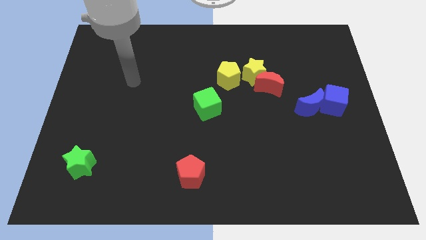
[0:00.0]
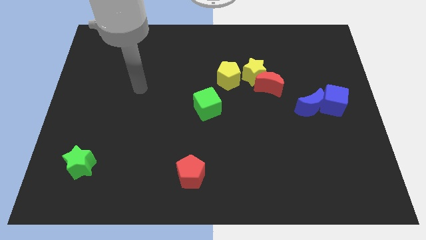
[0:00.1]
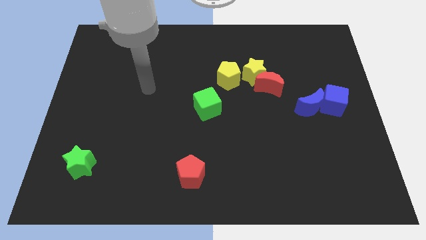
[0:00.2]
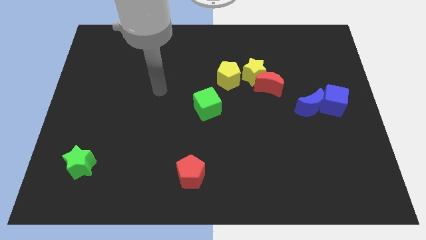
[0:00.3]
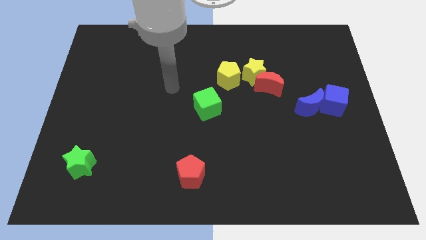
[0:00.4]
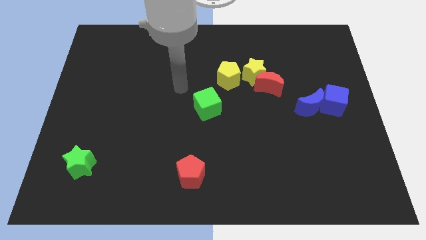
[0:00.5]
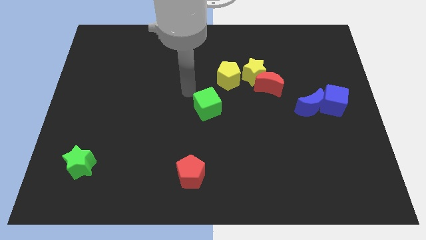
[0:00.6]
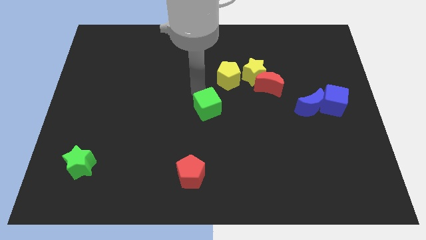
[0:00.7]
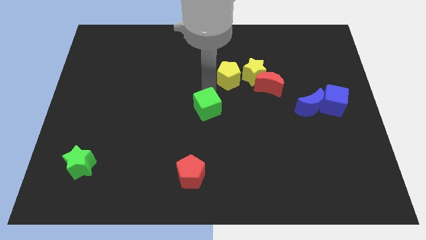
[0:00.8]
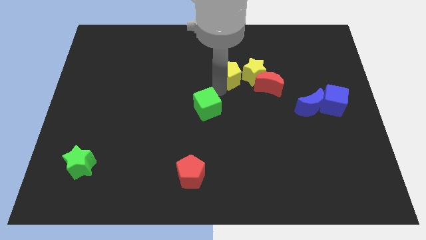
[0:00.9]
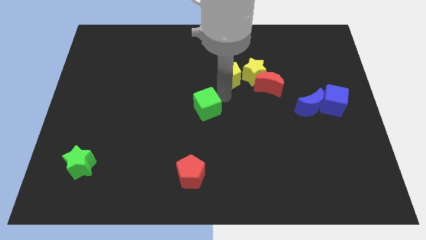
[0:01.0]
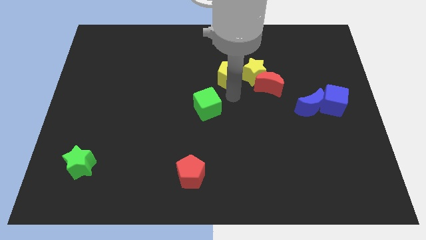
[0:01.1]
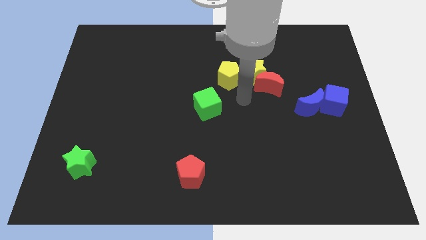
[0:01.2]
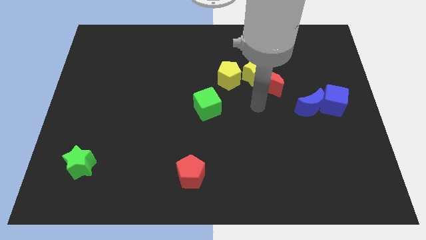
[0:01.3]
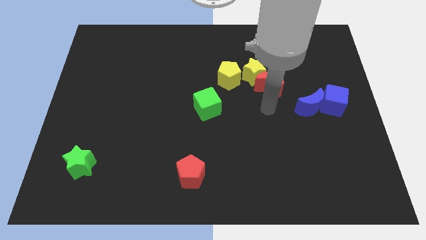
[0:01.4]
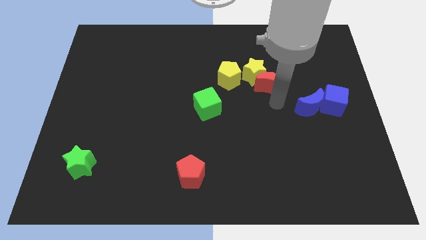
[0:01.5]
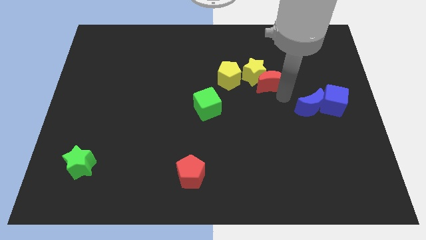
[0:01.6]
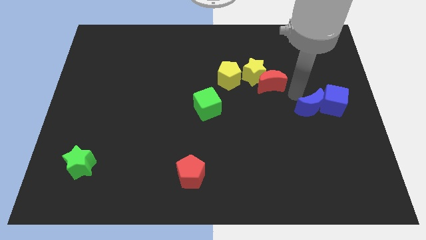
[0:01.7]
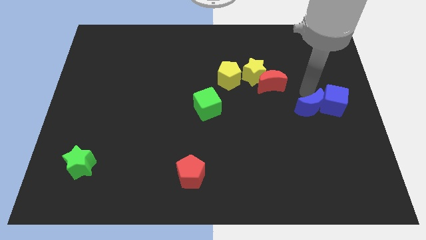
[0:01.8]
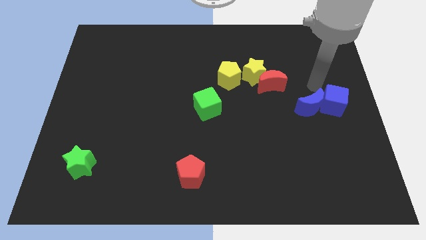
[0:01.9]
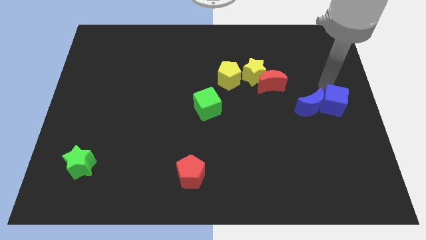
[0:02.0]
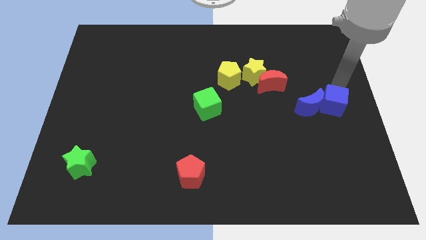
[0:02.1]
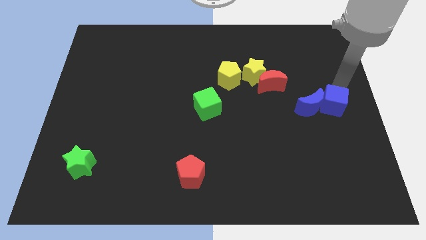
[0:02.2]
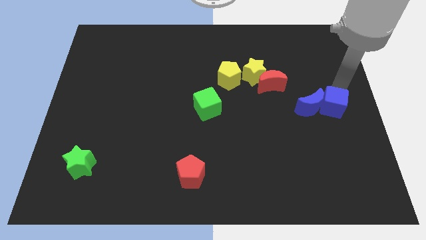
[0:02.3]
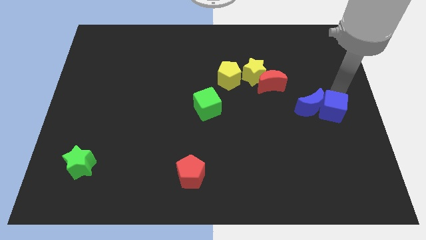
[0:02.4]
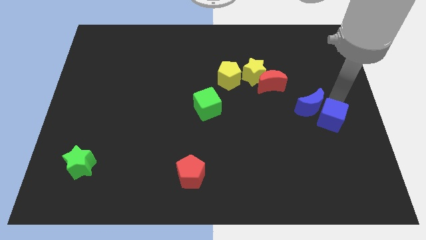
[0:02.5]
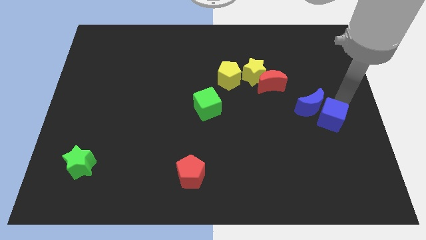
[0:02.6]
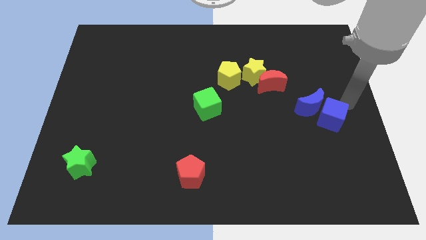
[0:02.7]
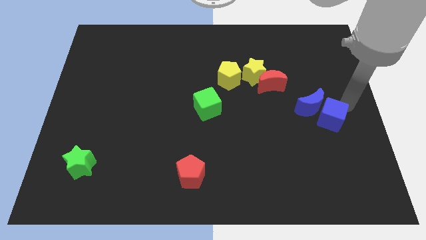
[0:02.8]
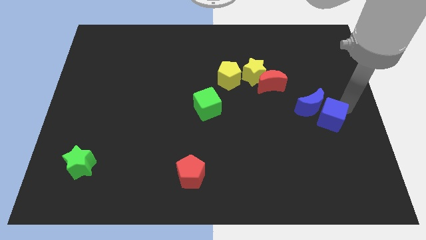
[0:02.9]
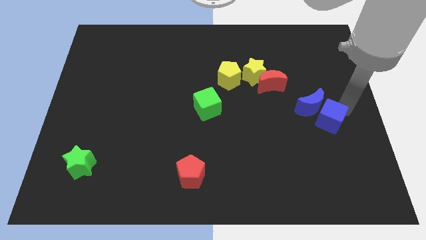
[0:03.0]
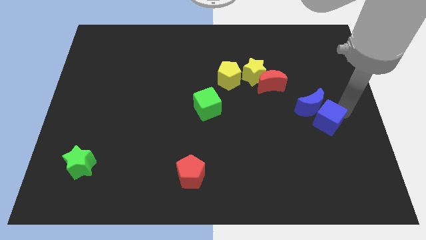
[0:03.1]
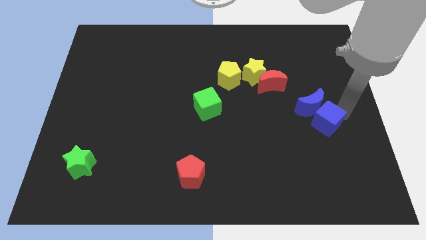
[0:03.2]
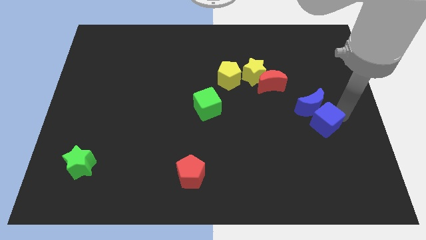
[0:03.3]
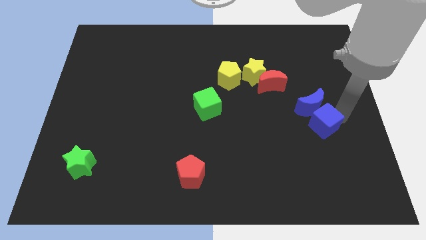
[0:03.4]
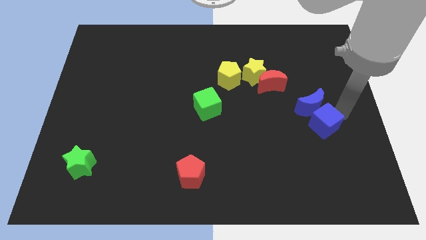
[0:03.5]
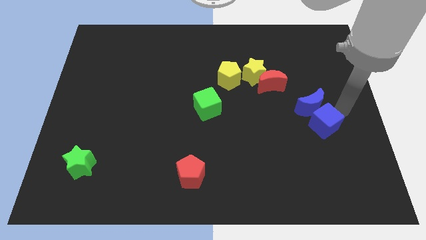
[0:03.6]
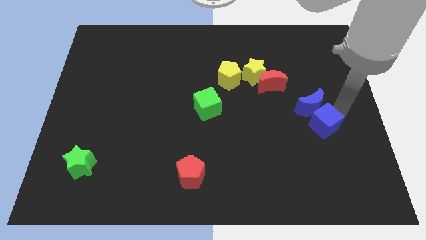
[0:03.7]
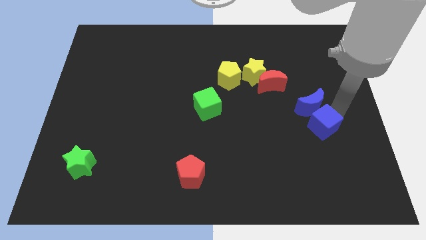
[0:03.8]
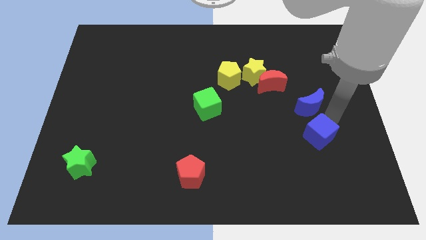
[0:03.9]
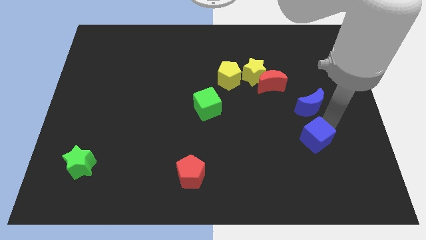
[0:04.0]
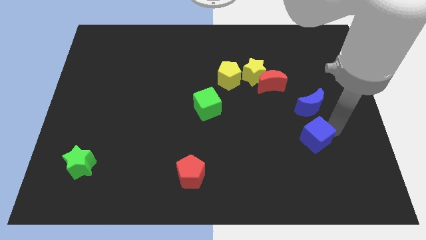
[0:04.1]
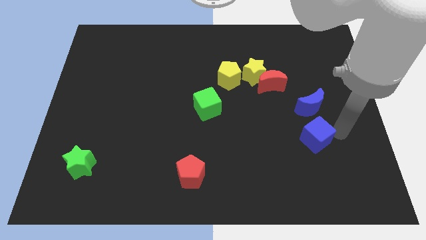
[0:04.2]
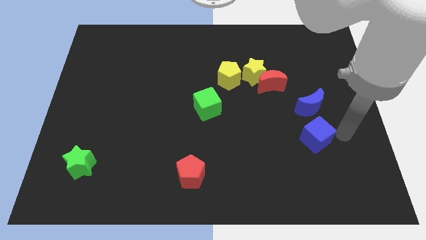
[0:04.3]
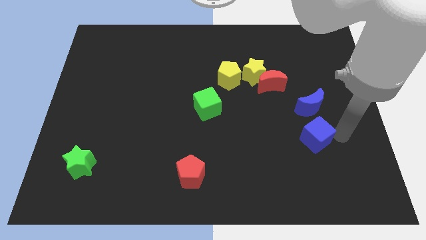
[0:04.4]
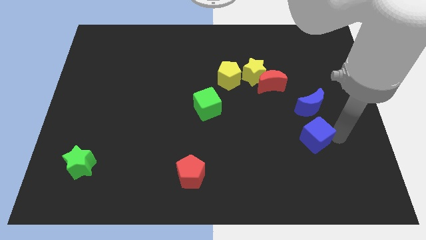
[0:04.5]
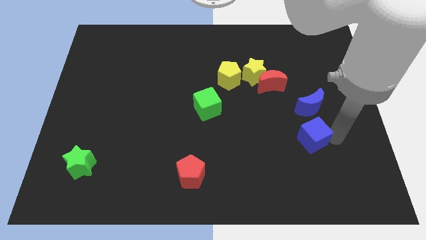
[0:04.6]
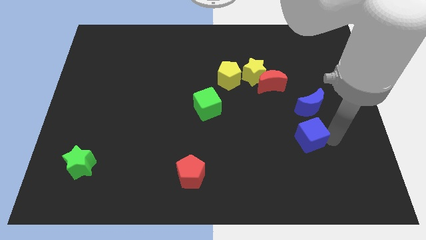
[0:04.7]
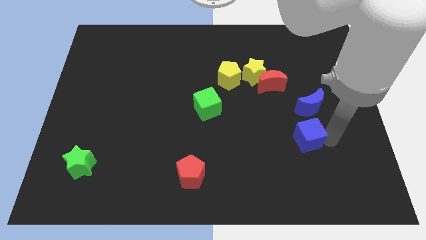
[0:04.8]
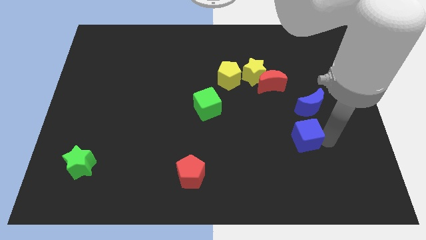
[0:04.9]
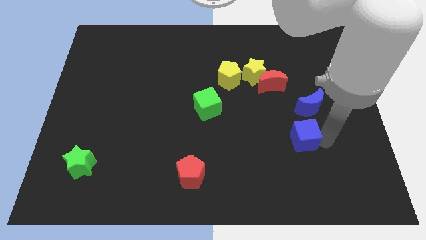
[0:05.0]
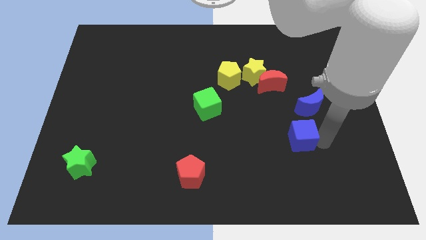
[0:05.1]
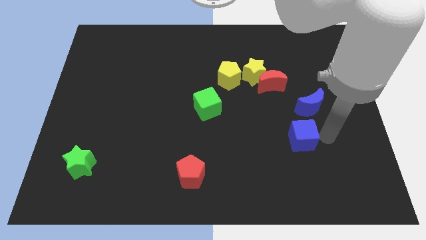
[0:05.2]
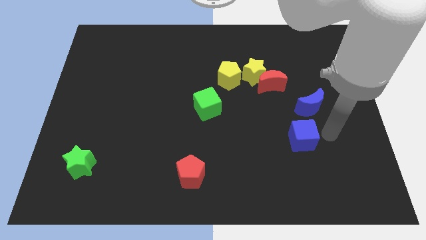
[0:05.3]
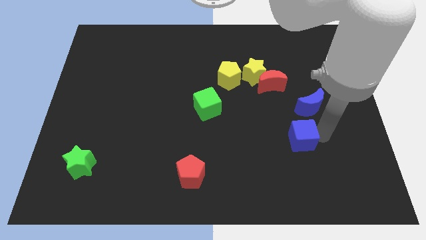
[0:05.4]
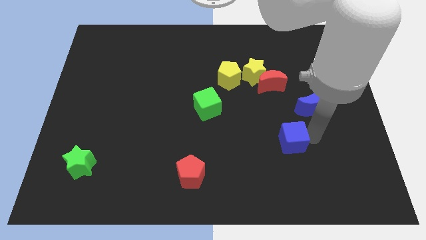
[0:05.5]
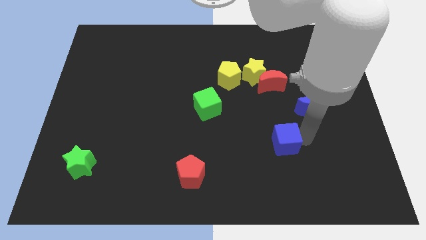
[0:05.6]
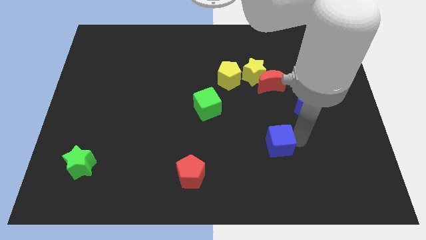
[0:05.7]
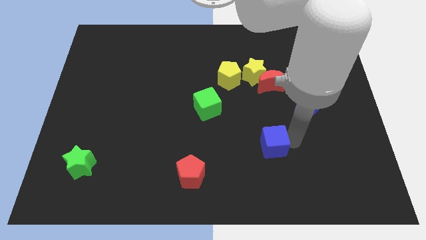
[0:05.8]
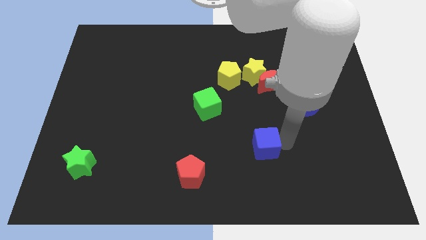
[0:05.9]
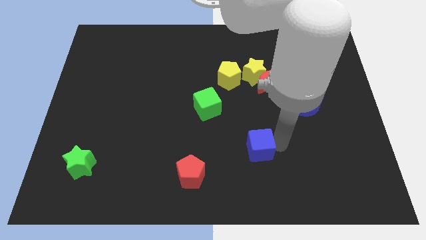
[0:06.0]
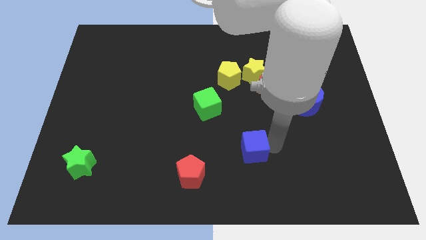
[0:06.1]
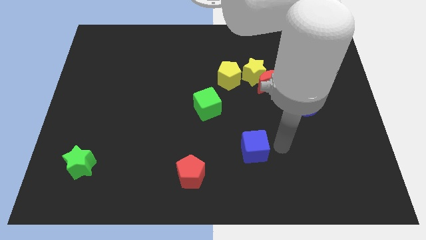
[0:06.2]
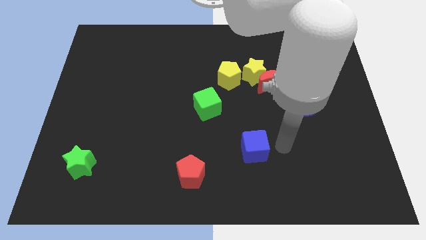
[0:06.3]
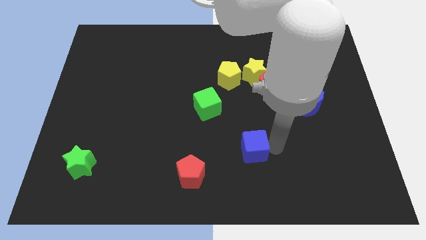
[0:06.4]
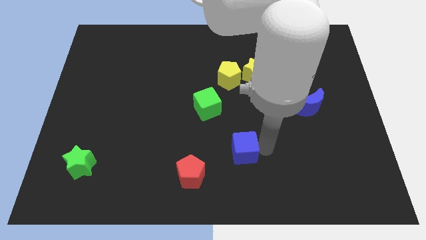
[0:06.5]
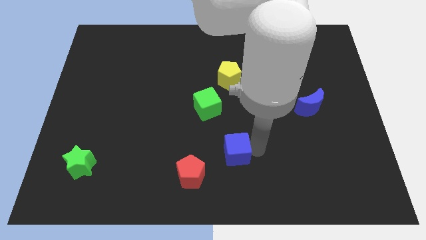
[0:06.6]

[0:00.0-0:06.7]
push the blue cube to the top right of the red pentagon

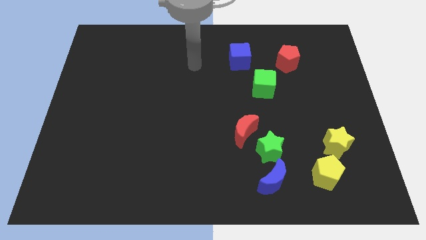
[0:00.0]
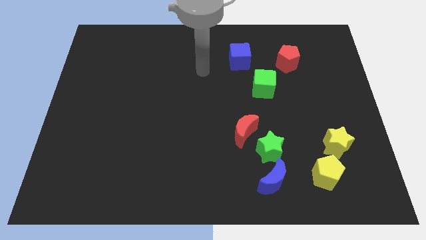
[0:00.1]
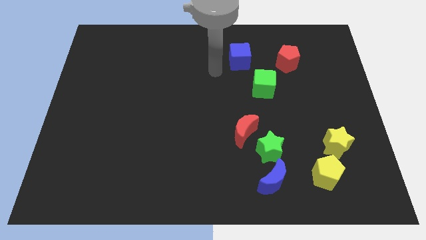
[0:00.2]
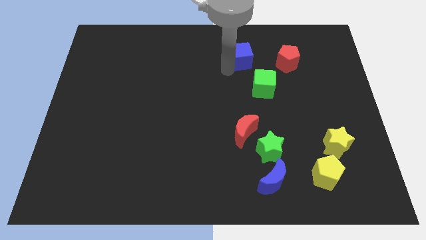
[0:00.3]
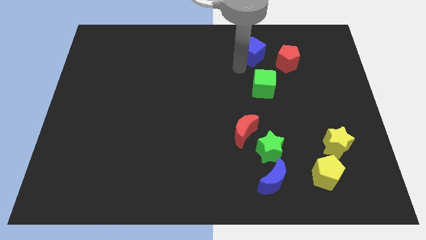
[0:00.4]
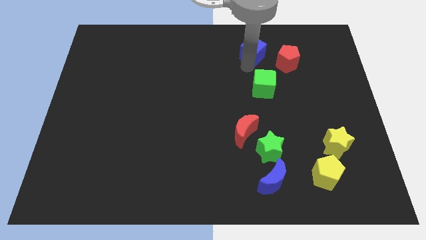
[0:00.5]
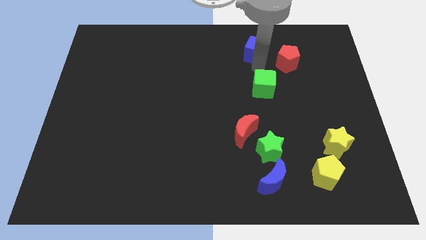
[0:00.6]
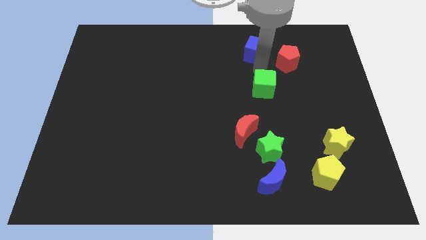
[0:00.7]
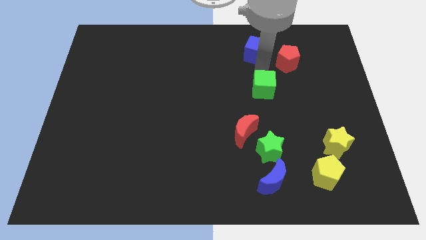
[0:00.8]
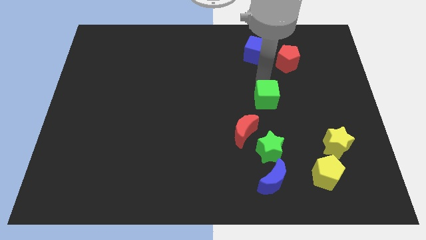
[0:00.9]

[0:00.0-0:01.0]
slide the green cube diagonally up and to the right of the red moon
